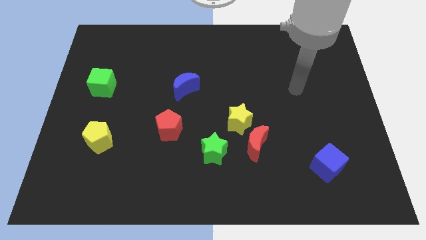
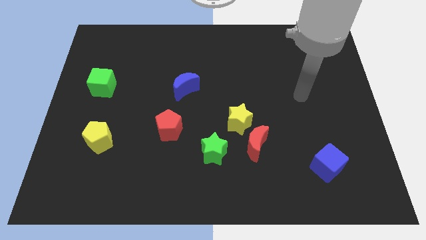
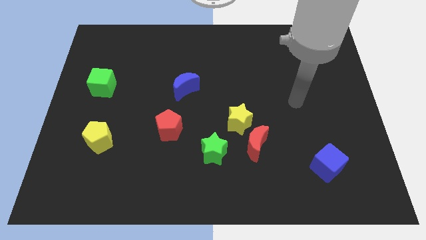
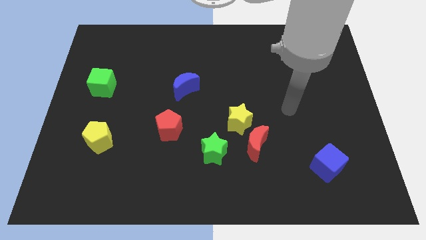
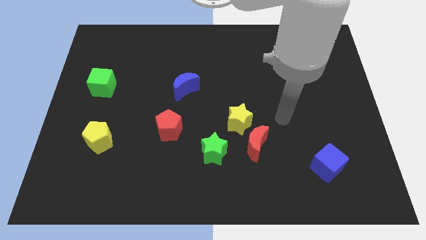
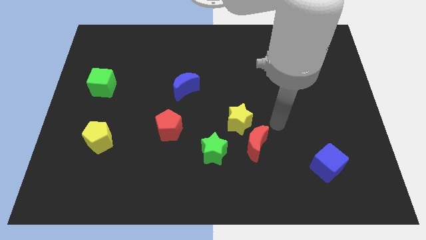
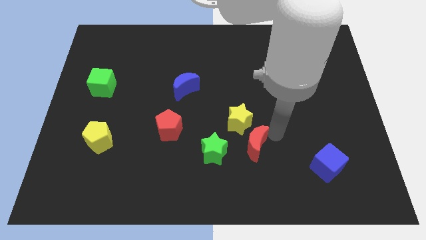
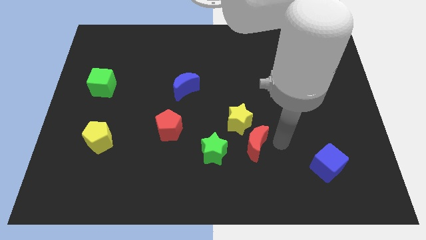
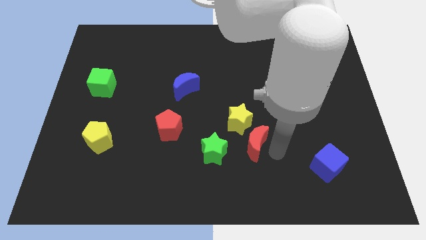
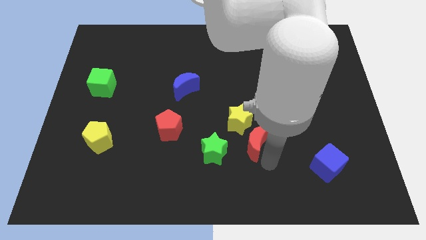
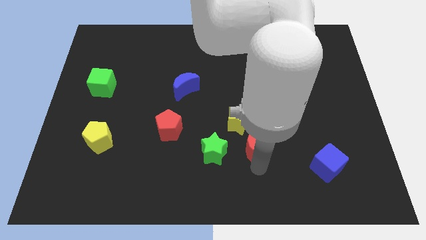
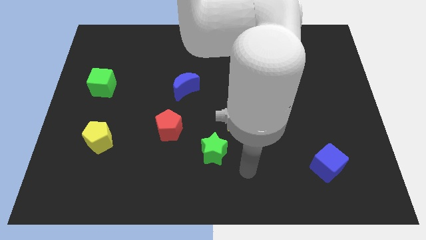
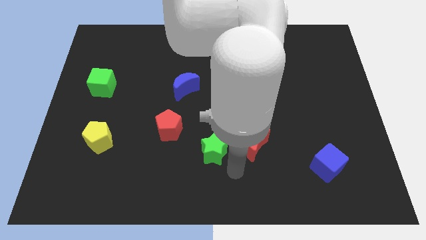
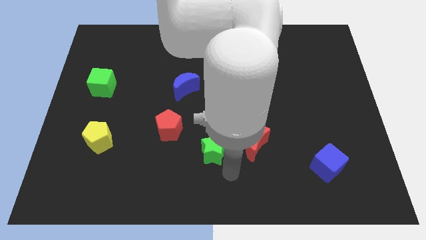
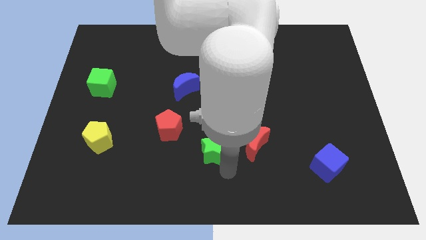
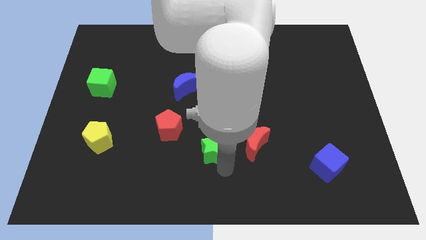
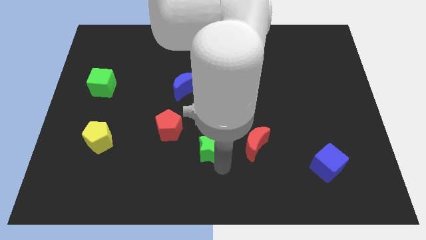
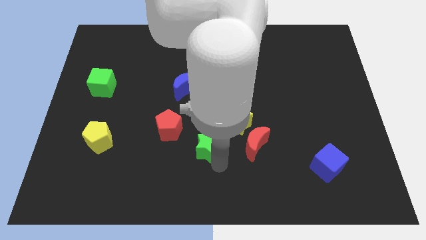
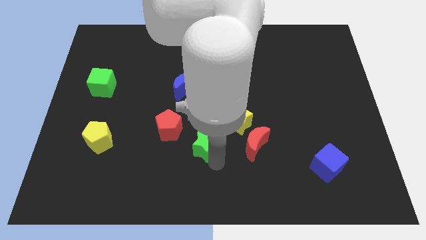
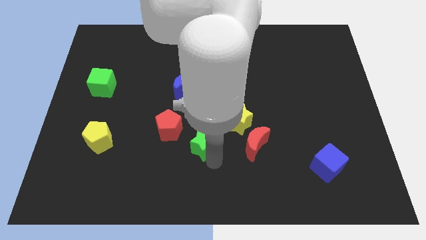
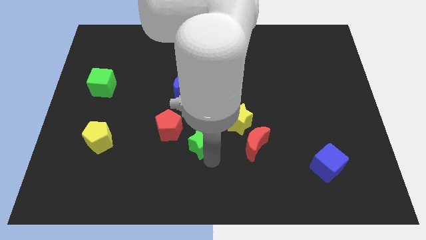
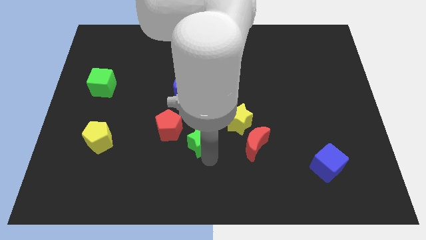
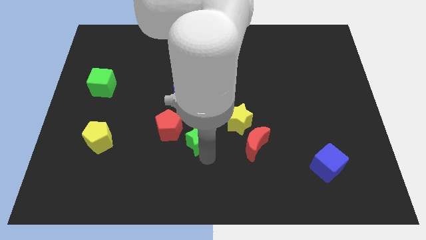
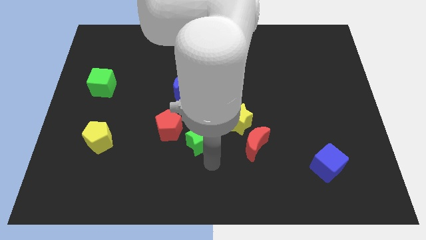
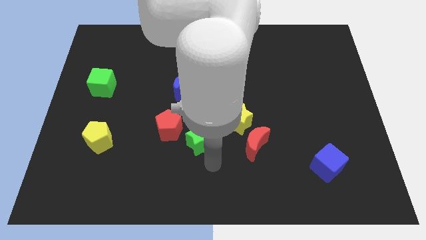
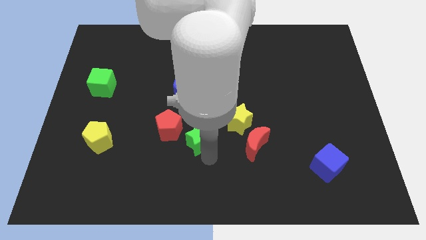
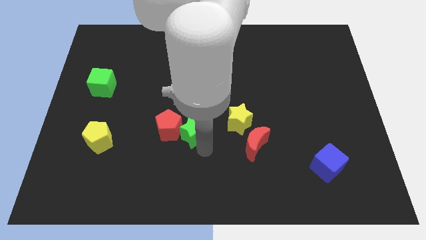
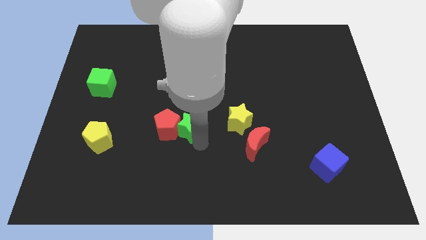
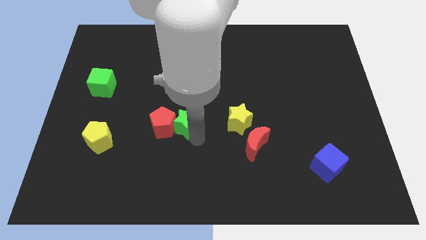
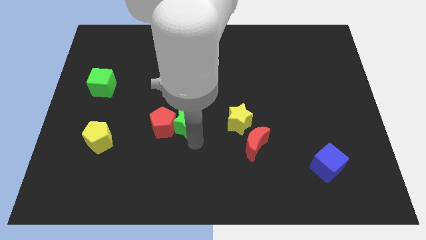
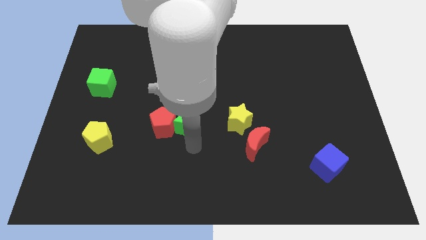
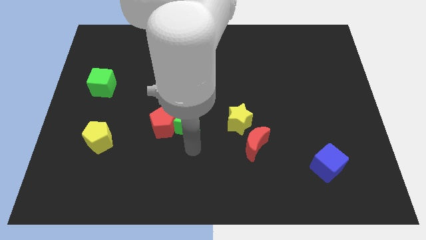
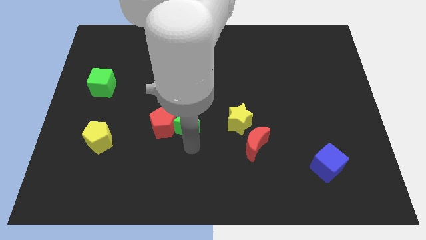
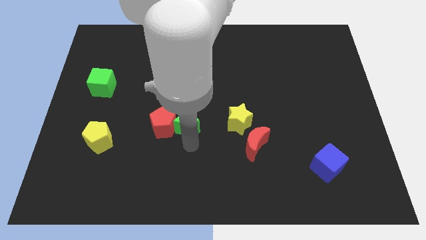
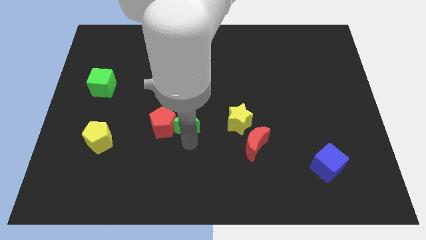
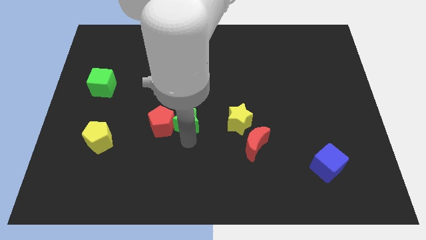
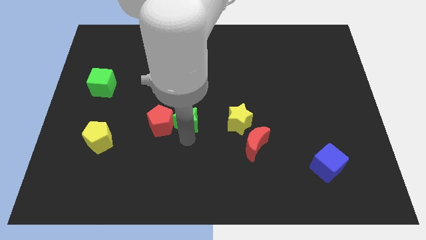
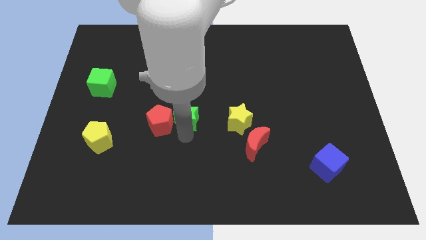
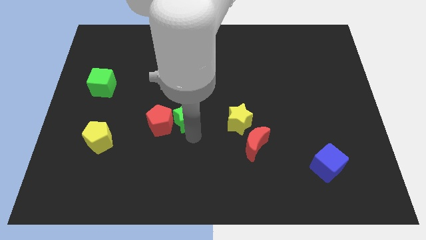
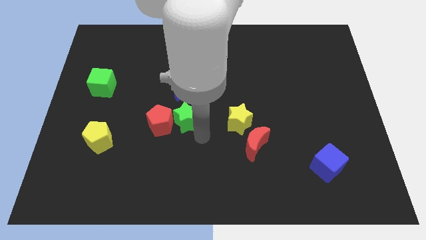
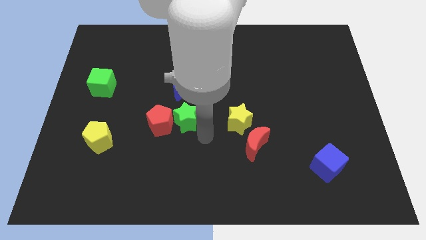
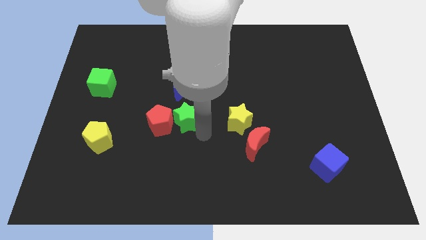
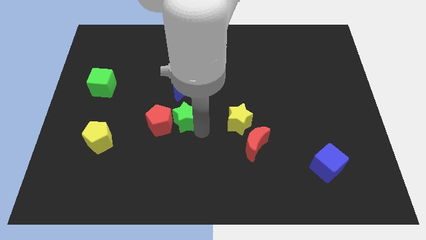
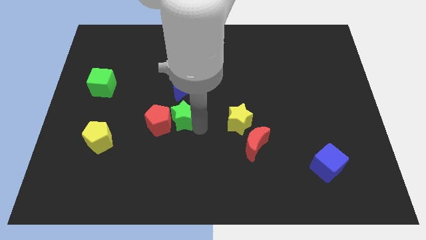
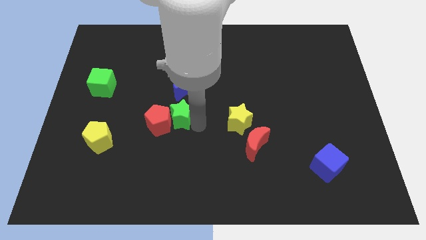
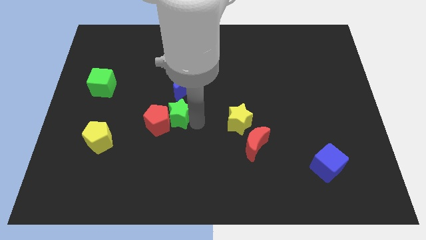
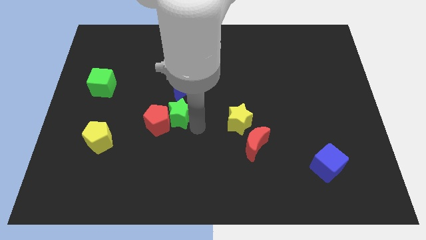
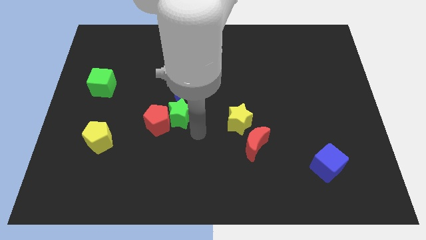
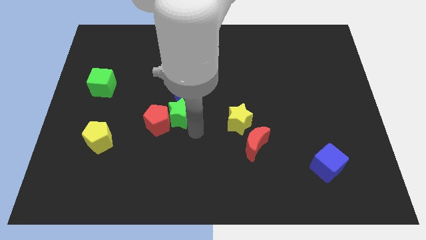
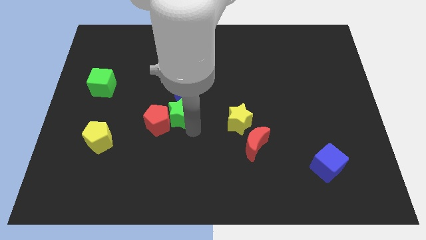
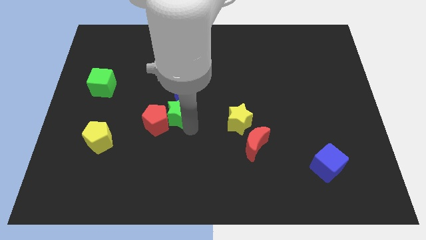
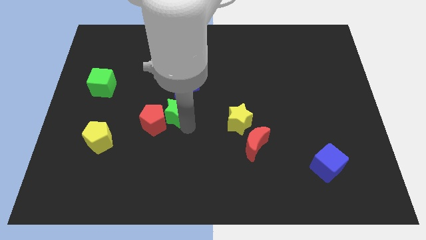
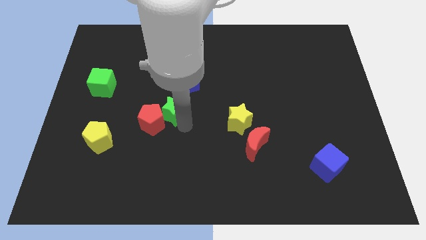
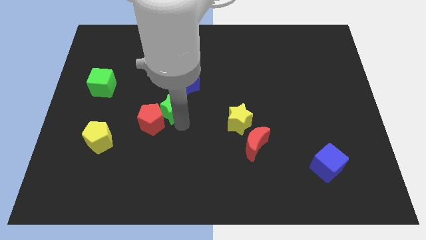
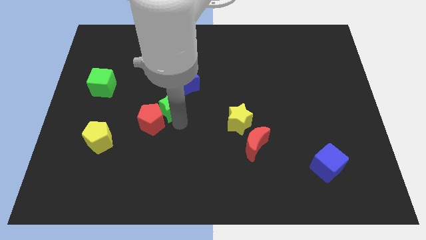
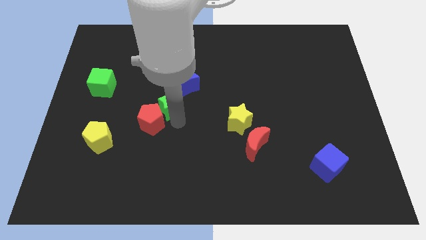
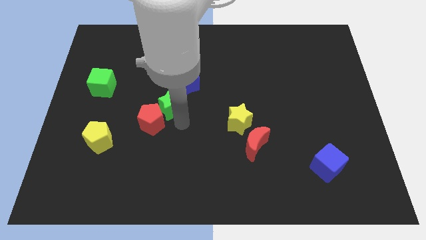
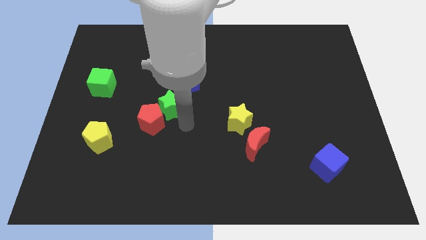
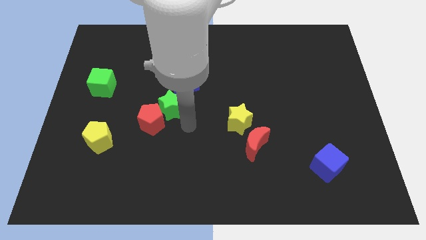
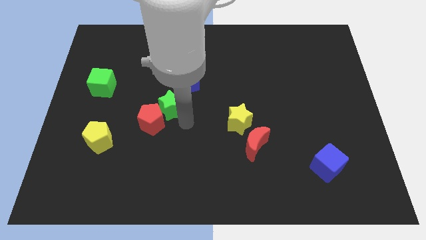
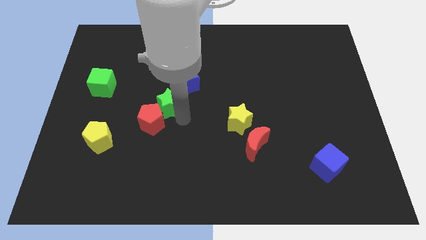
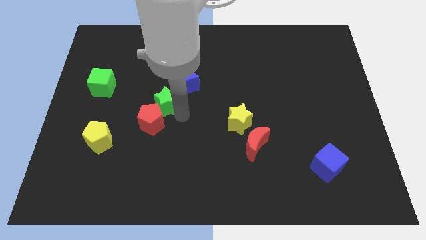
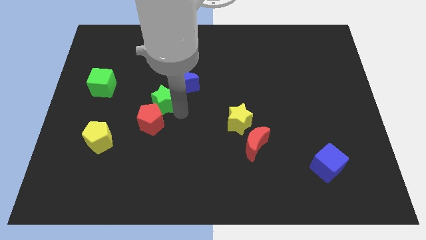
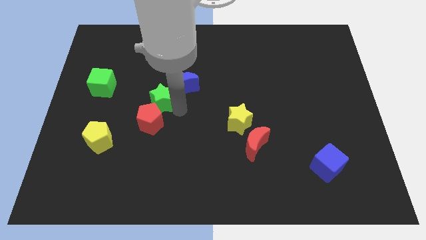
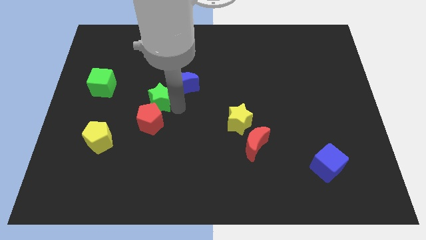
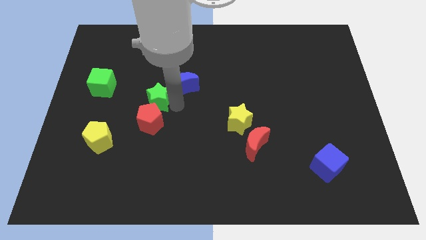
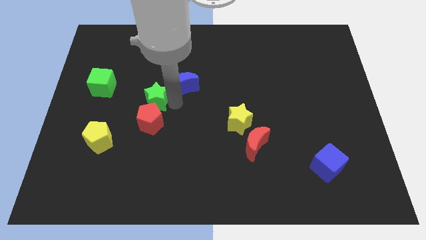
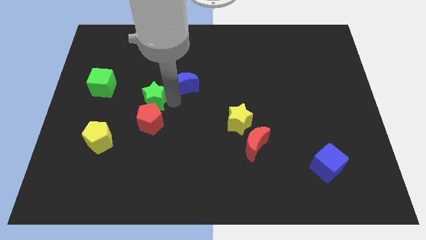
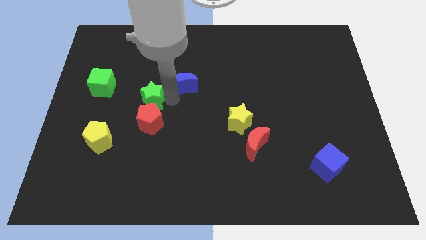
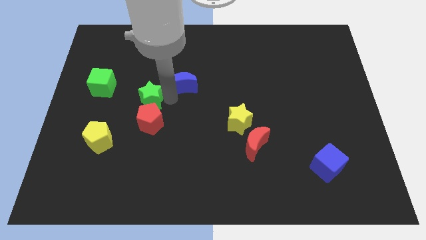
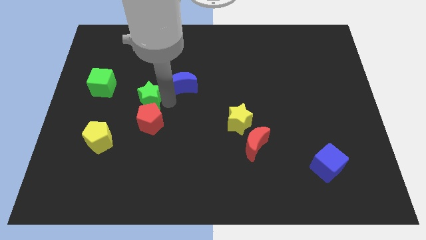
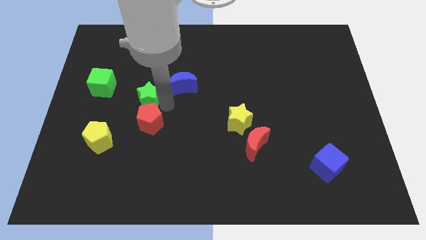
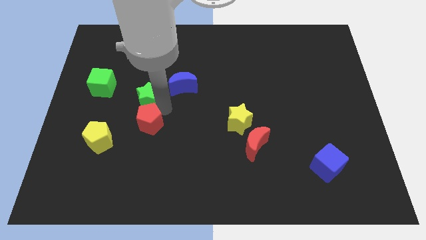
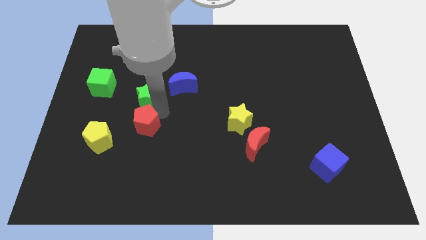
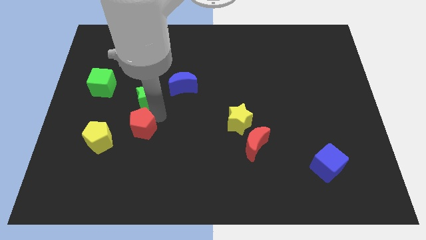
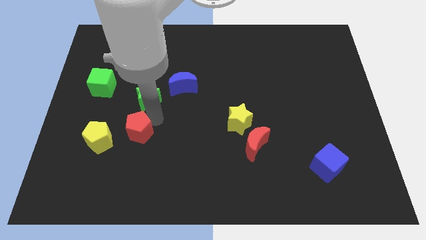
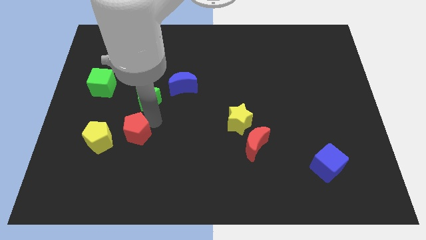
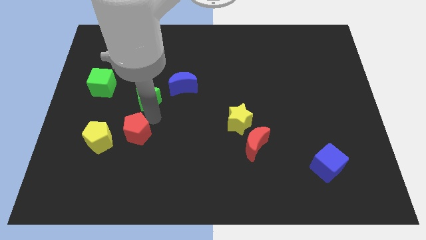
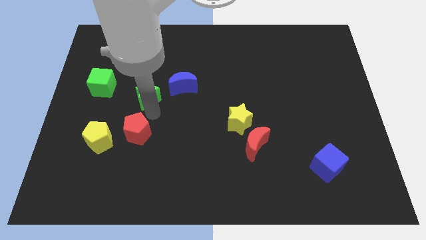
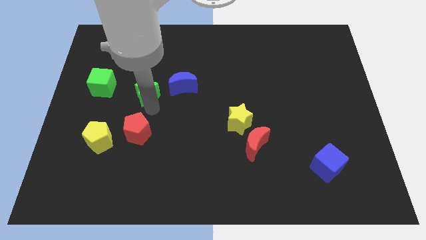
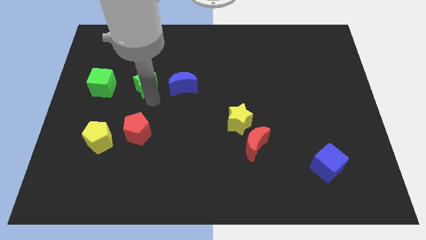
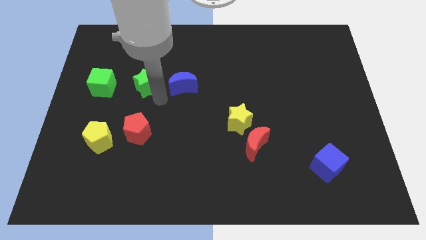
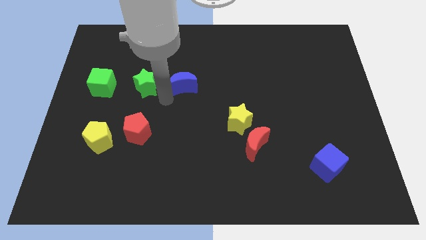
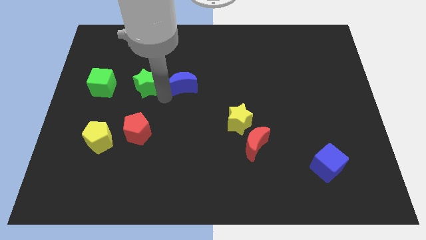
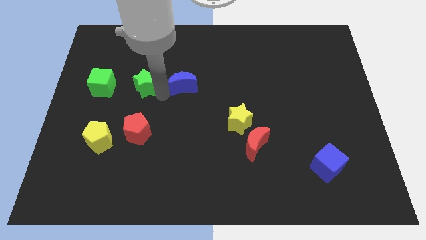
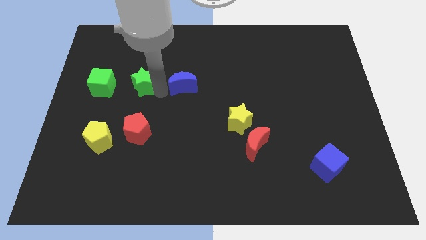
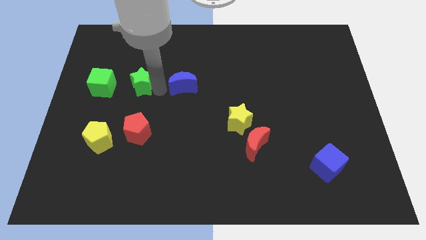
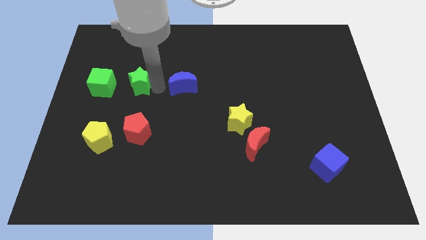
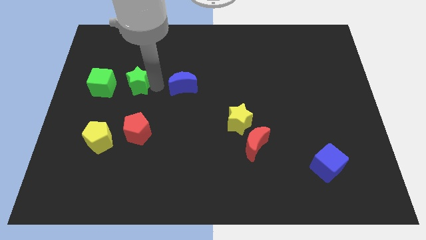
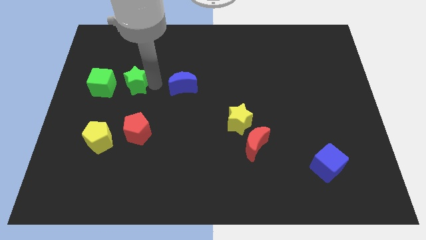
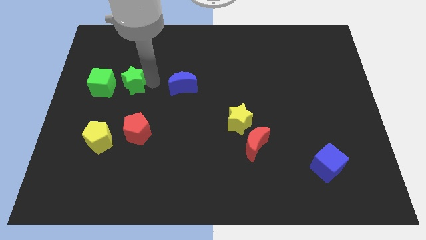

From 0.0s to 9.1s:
move the green star diagonally up and to the right of the green cube
